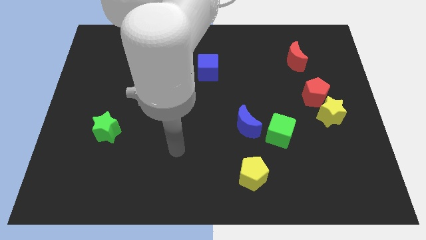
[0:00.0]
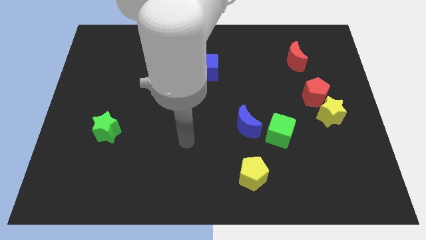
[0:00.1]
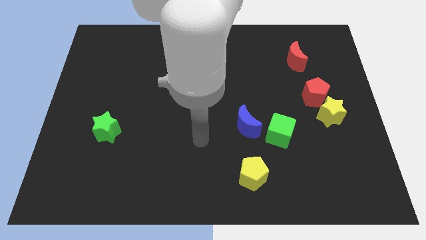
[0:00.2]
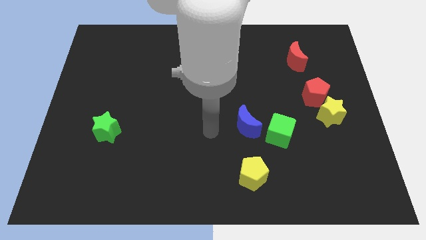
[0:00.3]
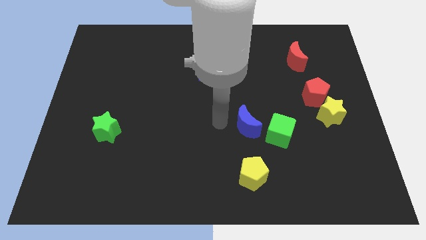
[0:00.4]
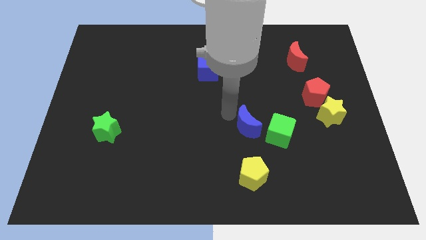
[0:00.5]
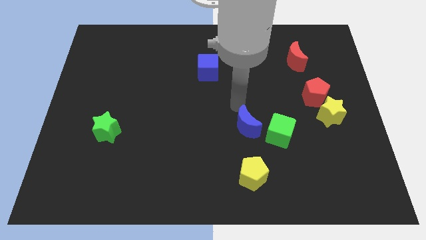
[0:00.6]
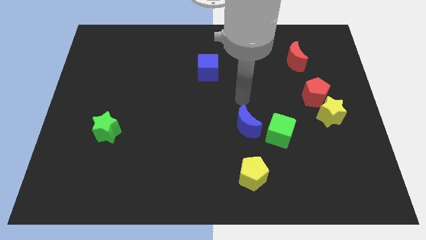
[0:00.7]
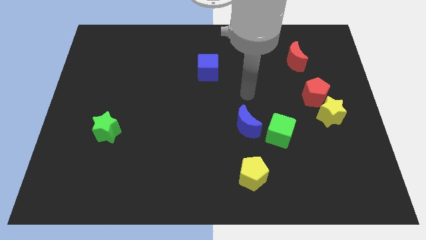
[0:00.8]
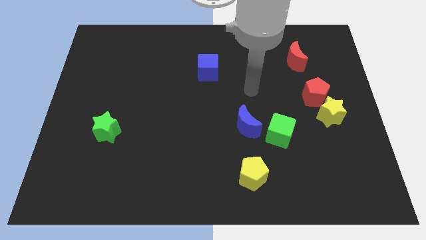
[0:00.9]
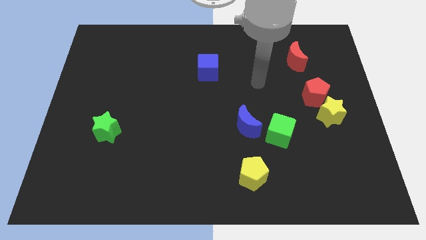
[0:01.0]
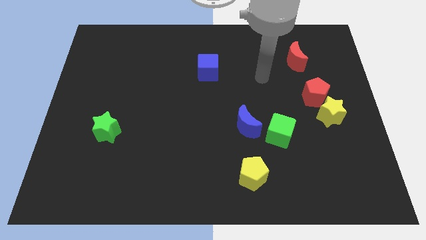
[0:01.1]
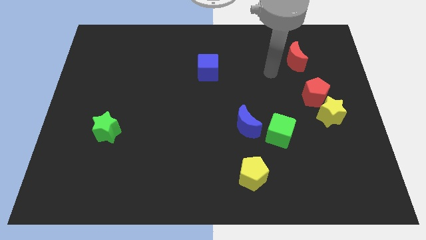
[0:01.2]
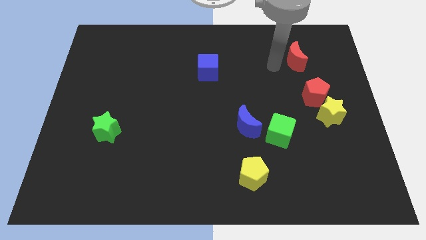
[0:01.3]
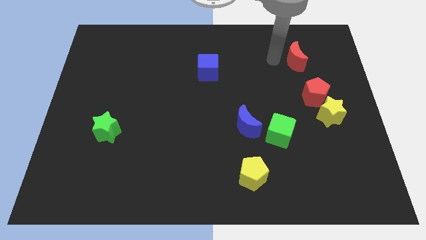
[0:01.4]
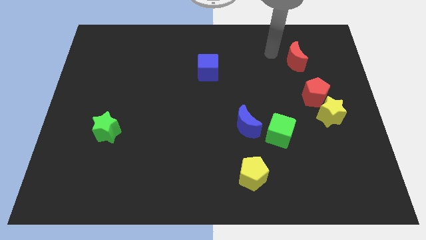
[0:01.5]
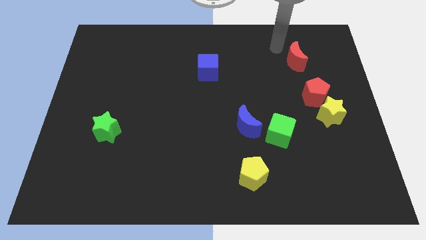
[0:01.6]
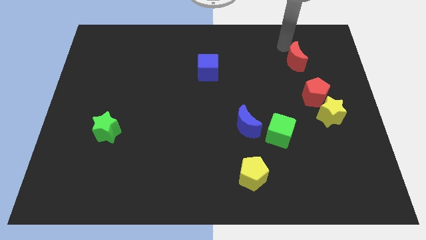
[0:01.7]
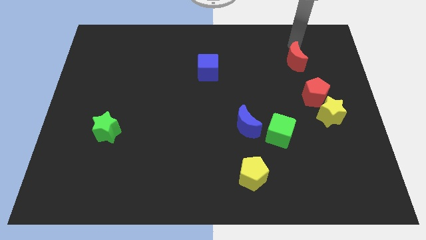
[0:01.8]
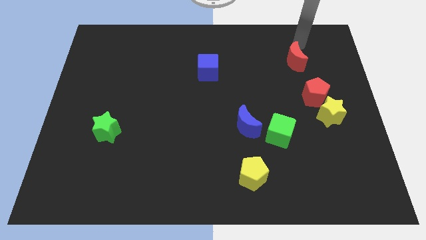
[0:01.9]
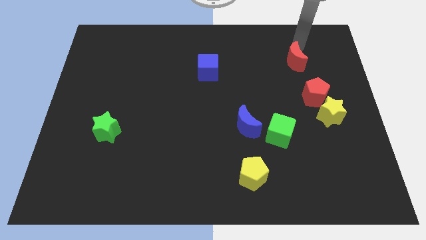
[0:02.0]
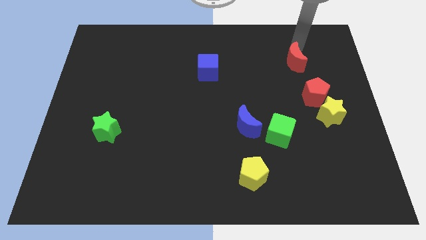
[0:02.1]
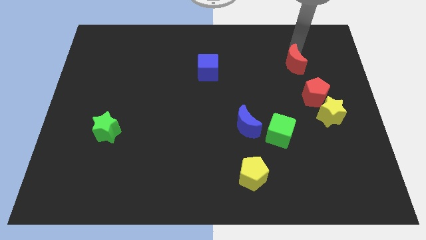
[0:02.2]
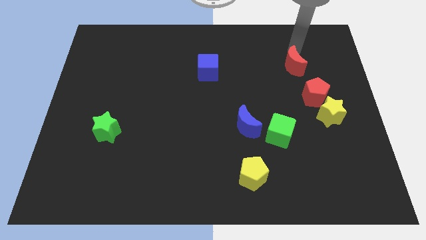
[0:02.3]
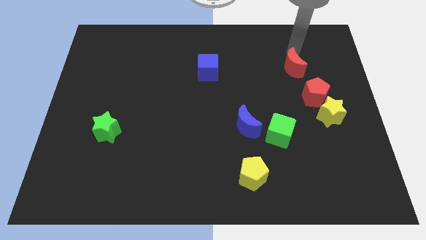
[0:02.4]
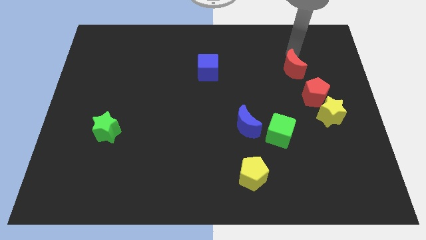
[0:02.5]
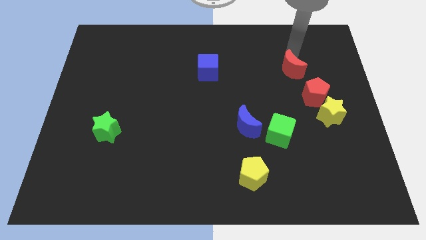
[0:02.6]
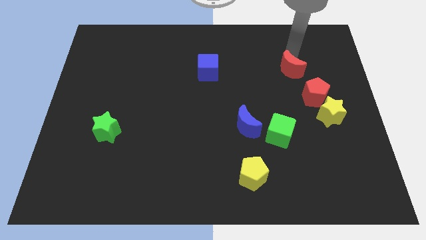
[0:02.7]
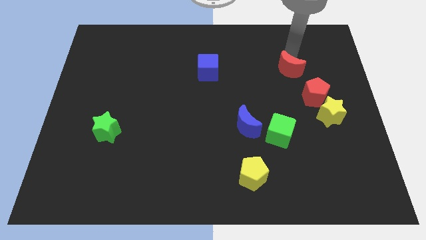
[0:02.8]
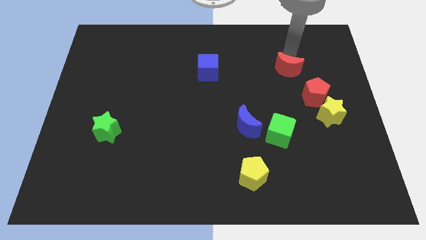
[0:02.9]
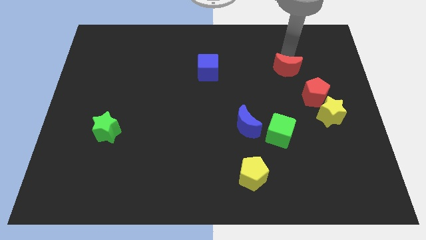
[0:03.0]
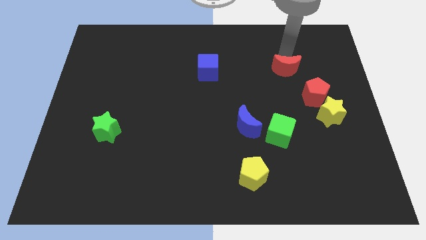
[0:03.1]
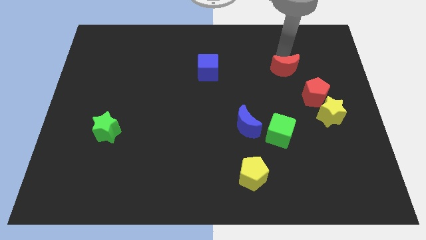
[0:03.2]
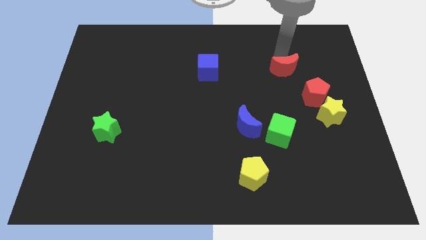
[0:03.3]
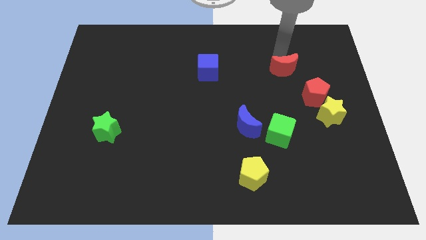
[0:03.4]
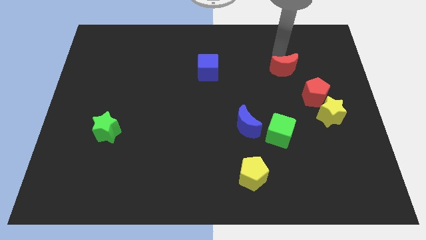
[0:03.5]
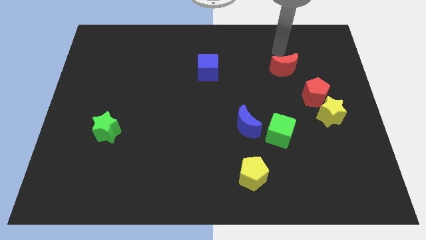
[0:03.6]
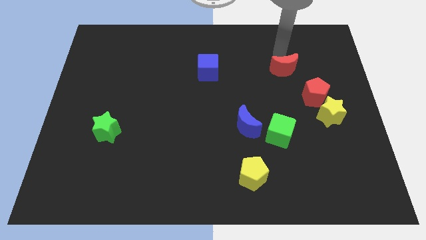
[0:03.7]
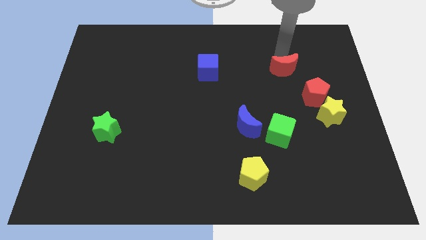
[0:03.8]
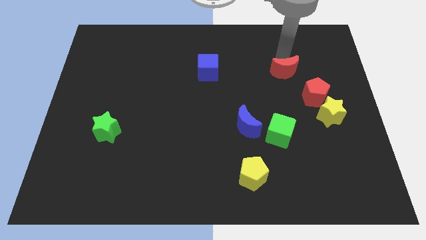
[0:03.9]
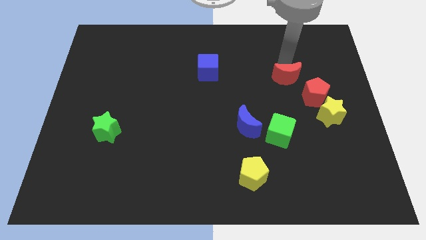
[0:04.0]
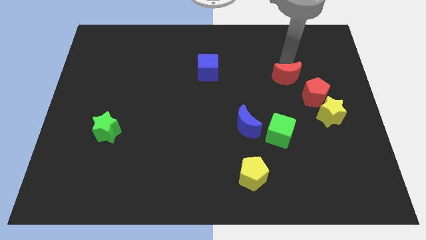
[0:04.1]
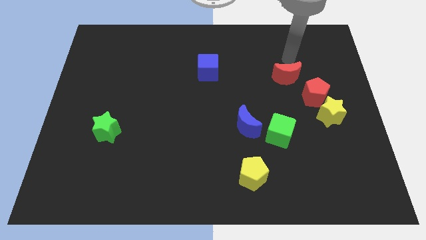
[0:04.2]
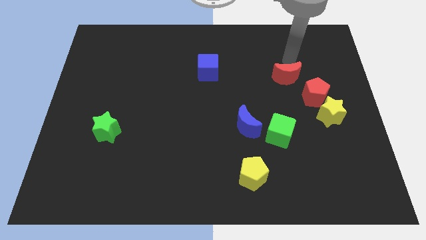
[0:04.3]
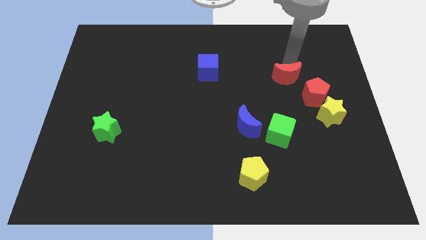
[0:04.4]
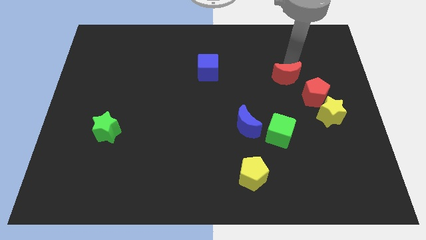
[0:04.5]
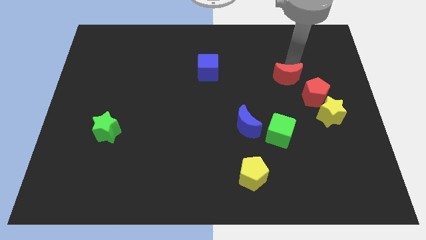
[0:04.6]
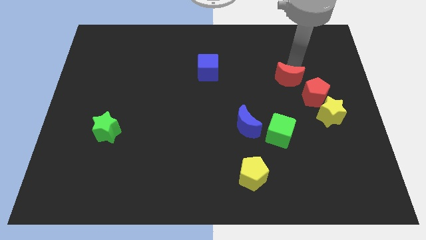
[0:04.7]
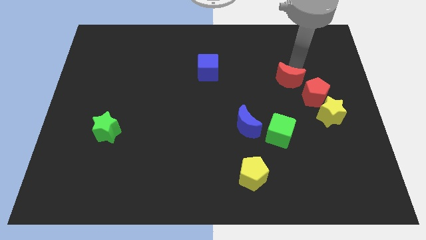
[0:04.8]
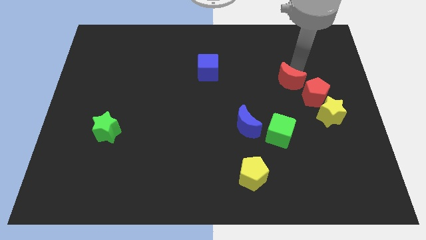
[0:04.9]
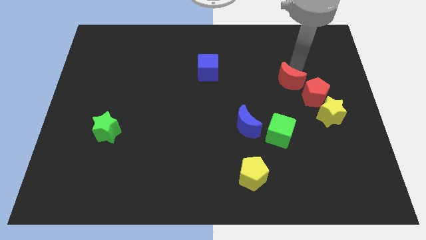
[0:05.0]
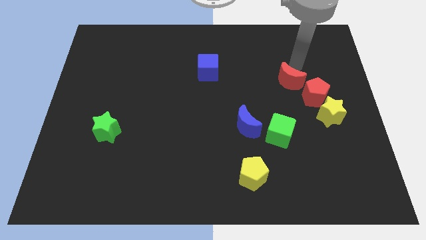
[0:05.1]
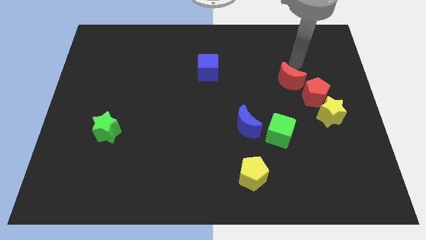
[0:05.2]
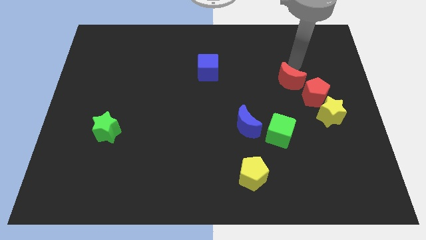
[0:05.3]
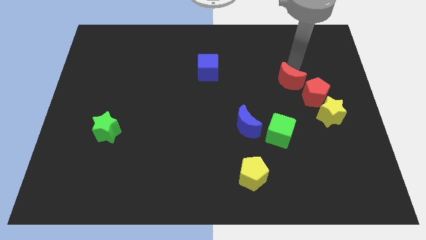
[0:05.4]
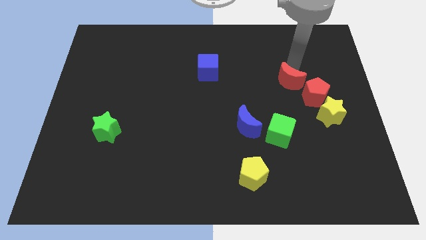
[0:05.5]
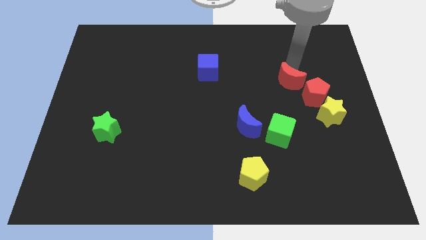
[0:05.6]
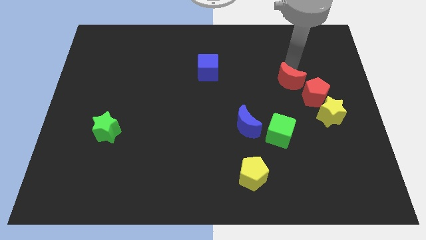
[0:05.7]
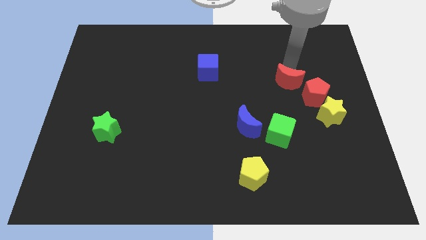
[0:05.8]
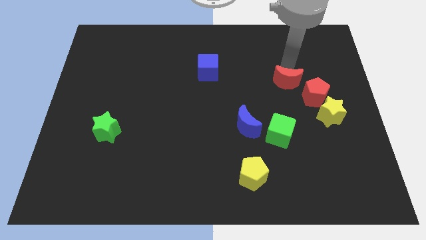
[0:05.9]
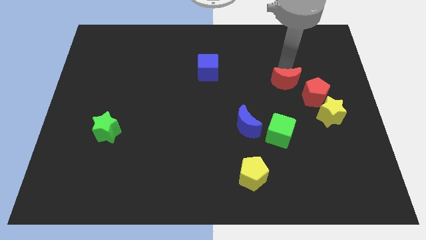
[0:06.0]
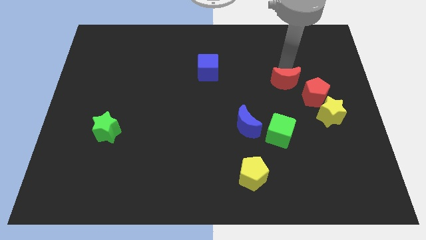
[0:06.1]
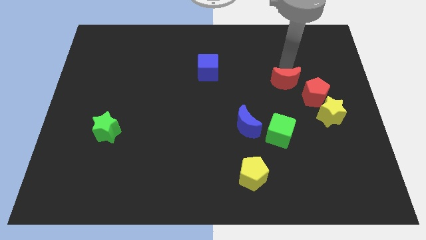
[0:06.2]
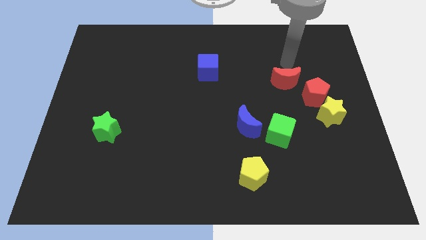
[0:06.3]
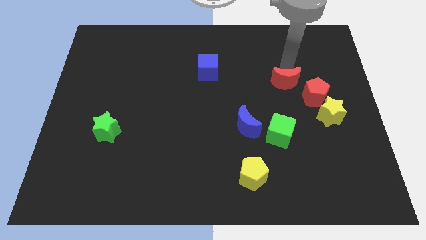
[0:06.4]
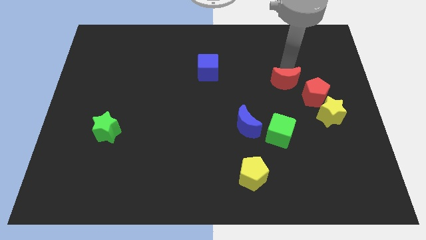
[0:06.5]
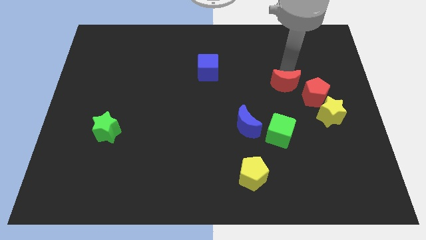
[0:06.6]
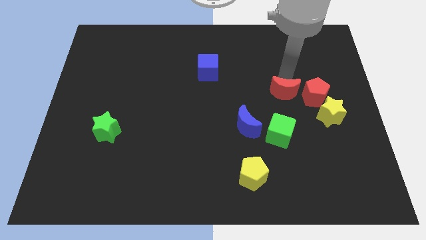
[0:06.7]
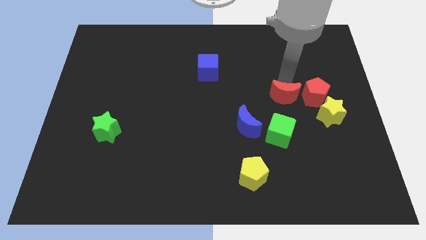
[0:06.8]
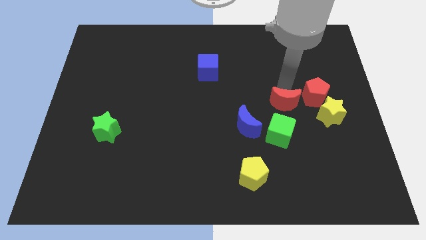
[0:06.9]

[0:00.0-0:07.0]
move the red moon to the left of the yellow star

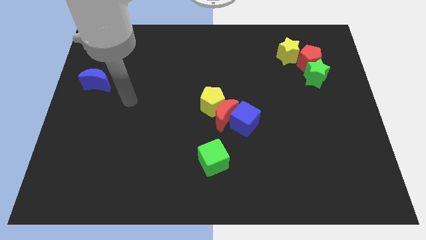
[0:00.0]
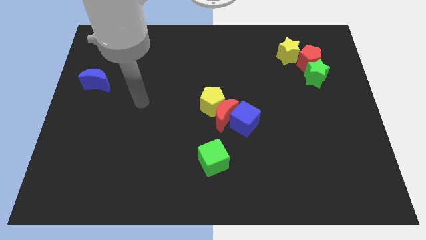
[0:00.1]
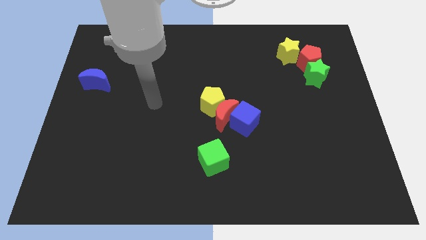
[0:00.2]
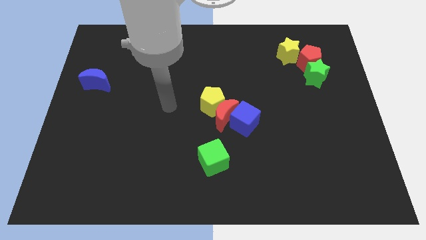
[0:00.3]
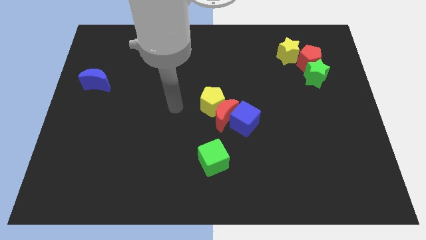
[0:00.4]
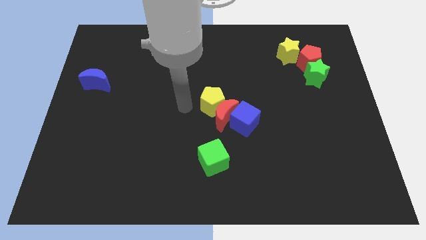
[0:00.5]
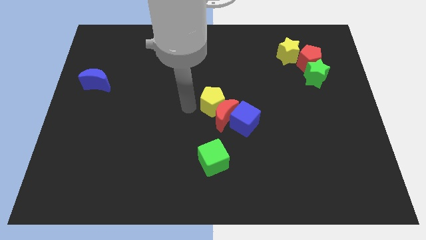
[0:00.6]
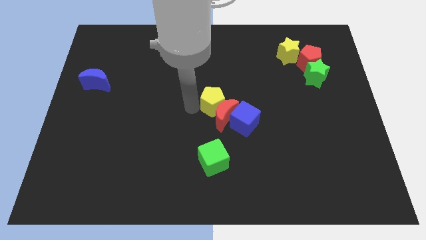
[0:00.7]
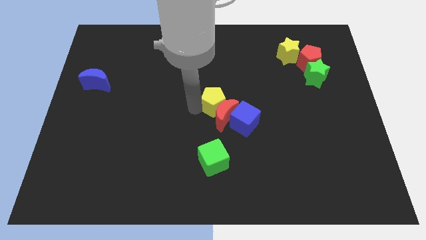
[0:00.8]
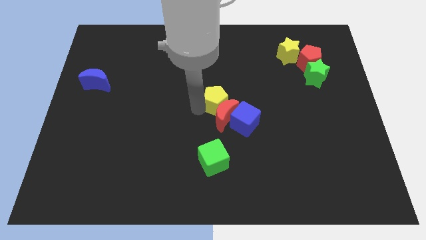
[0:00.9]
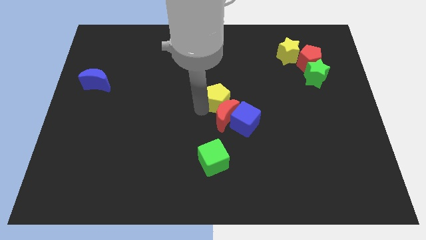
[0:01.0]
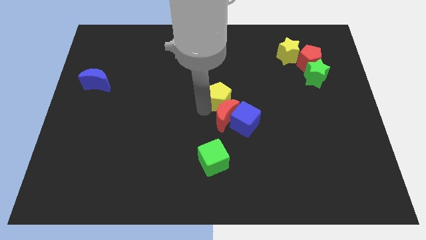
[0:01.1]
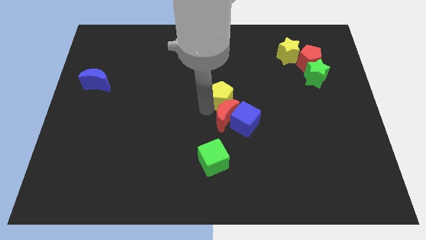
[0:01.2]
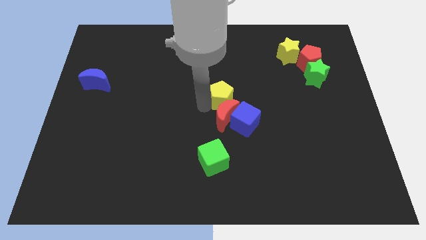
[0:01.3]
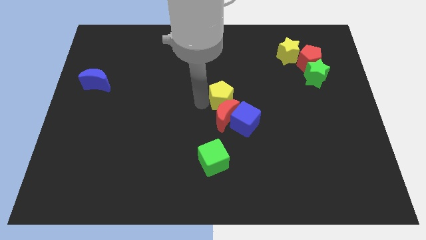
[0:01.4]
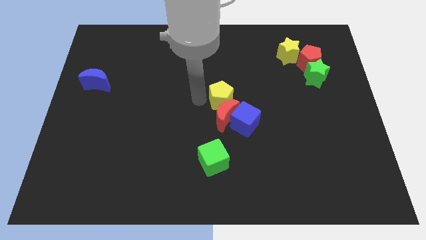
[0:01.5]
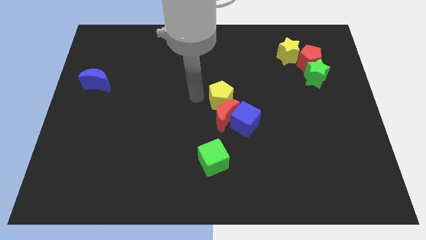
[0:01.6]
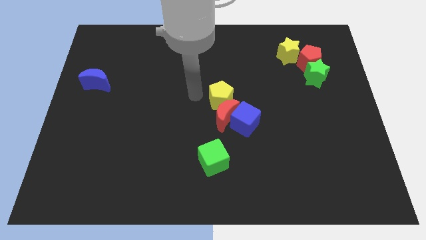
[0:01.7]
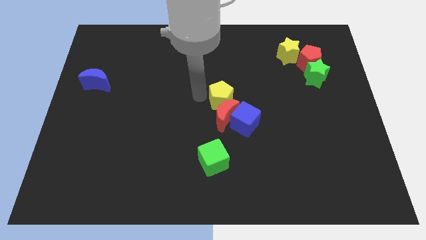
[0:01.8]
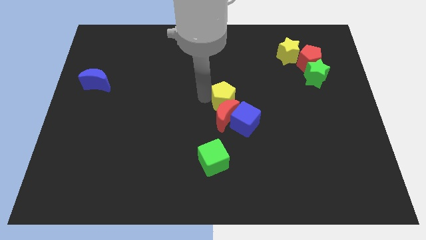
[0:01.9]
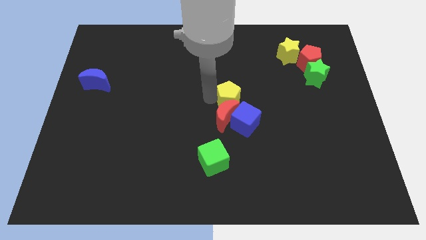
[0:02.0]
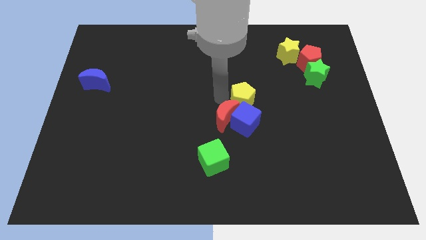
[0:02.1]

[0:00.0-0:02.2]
push the yellow pentagon to the right of the red moon
